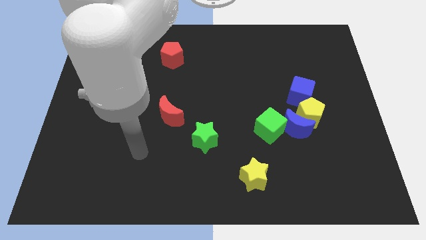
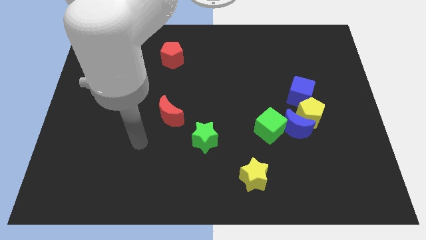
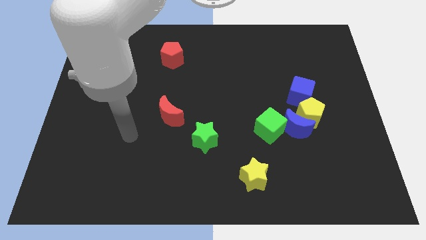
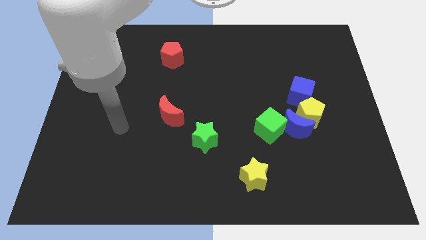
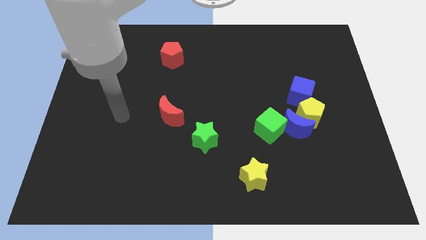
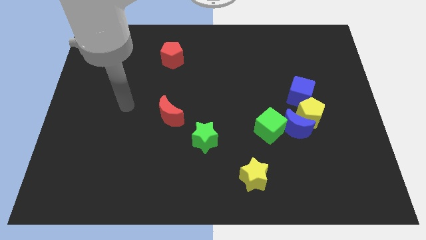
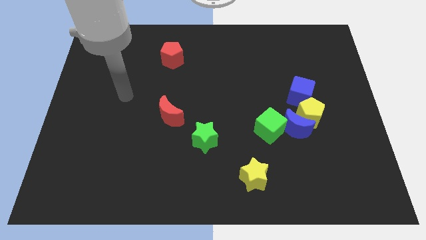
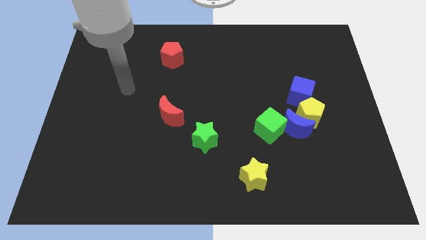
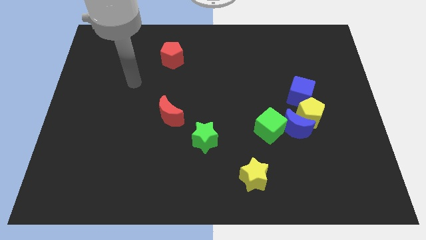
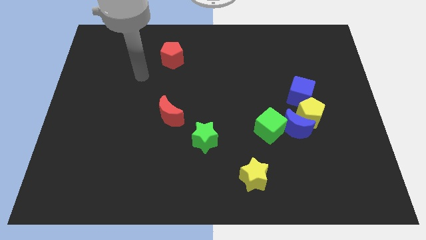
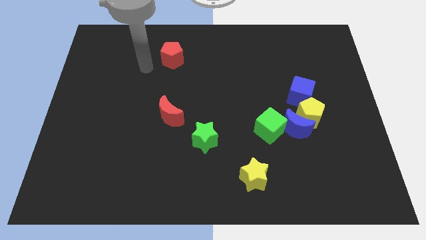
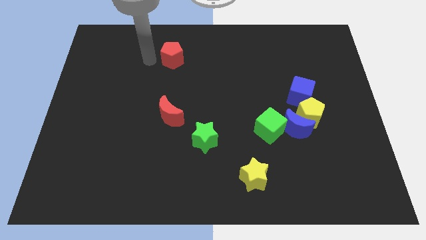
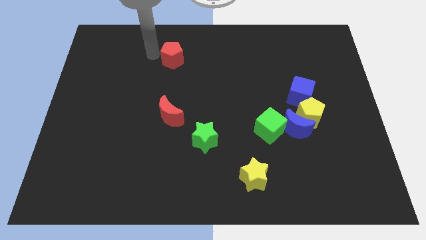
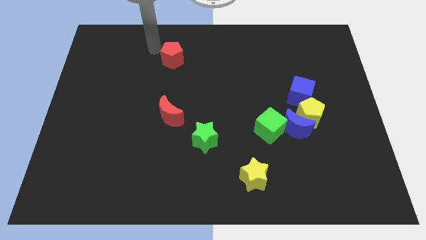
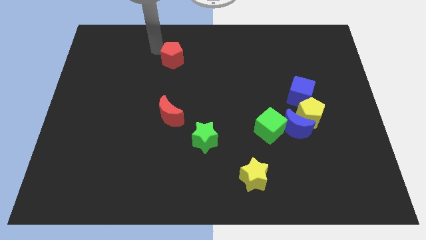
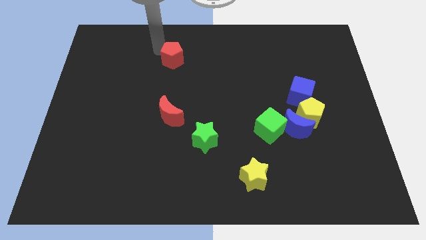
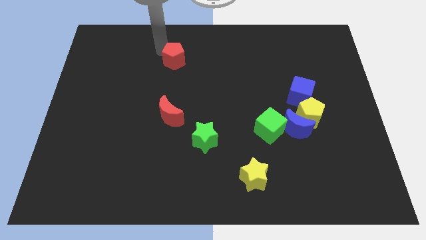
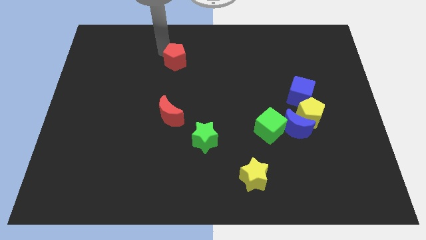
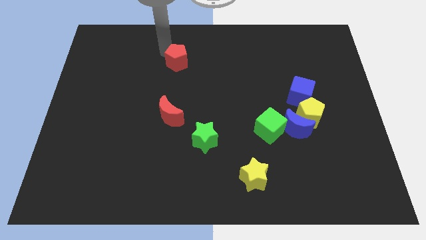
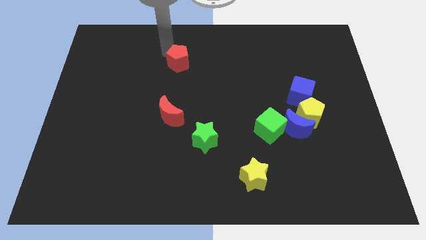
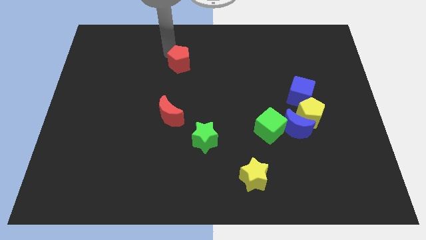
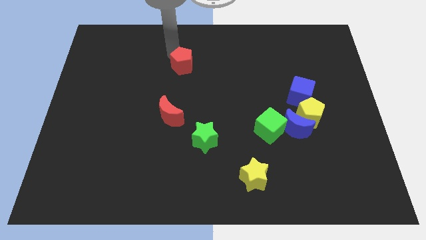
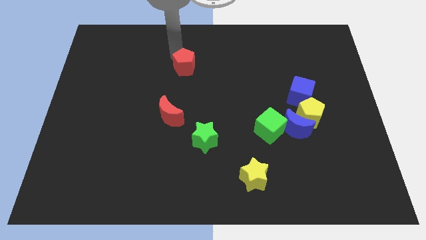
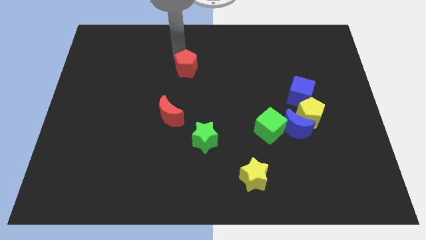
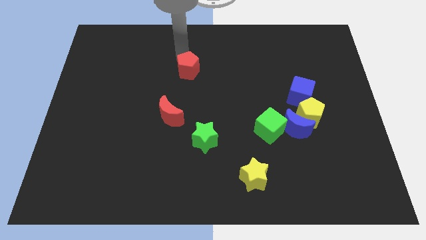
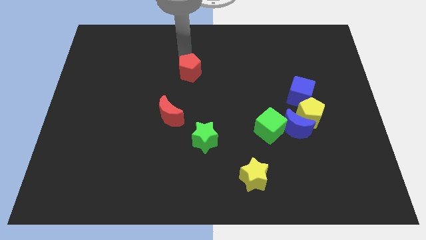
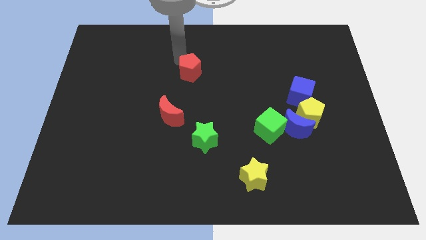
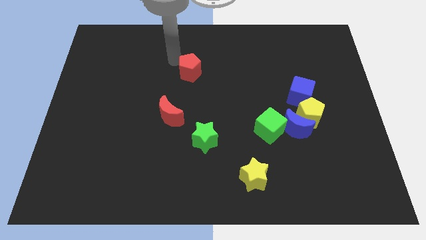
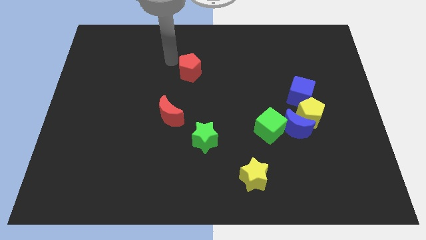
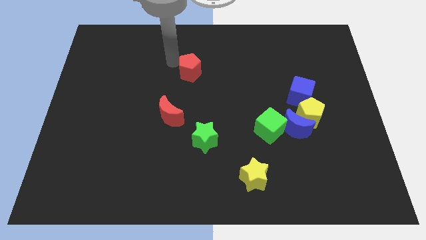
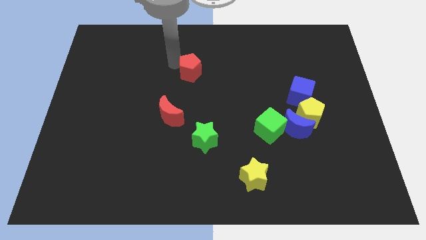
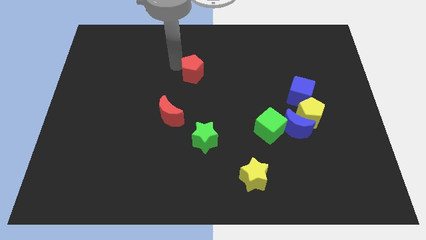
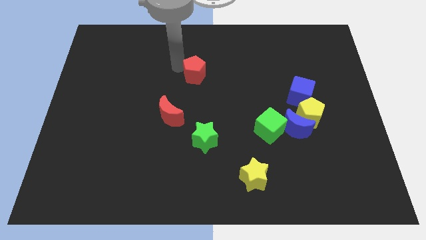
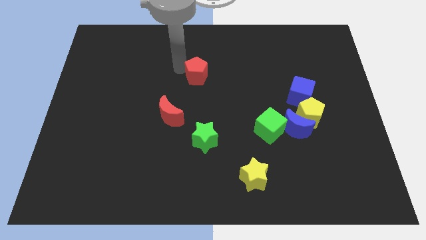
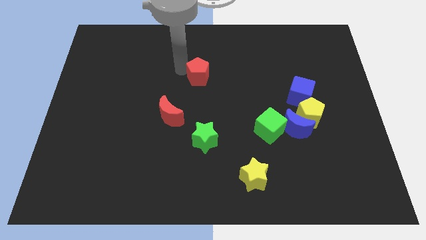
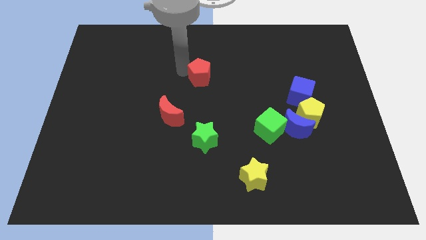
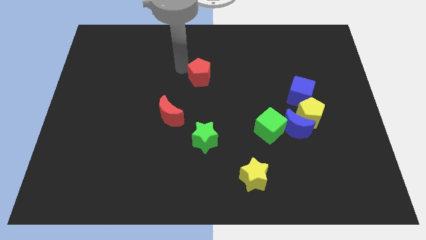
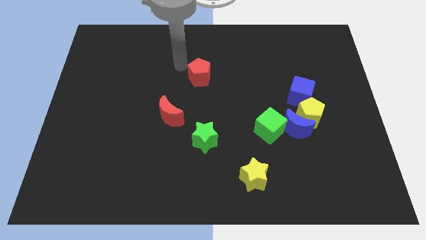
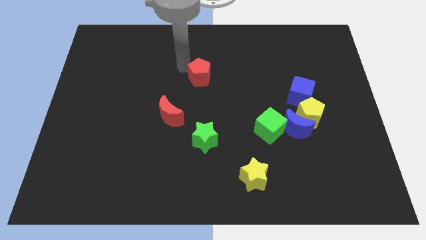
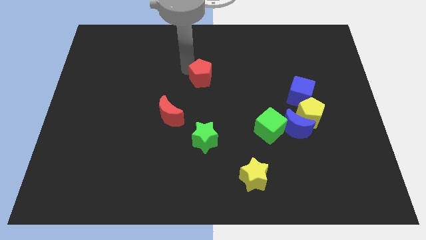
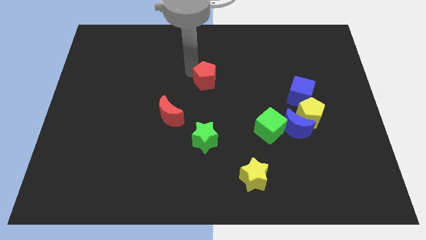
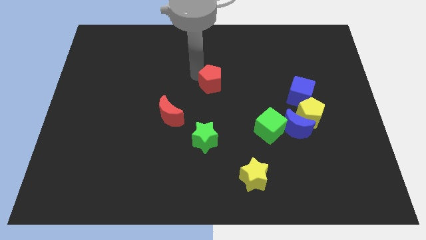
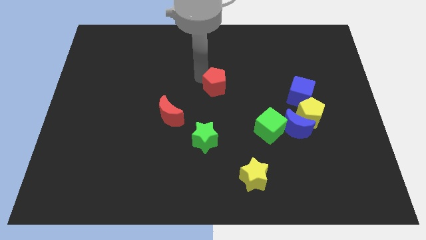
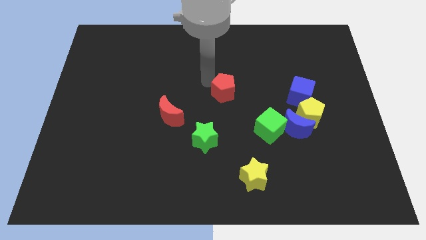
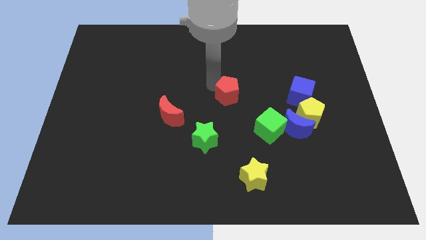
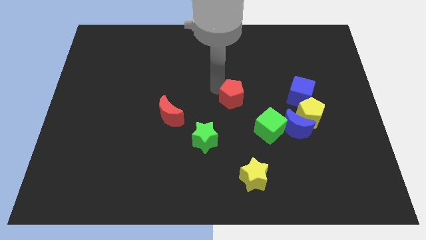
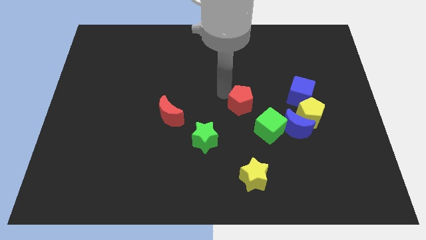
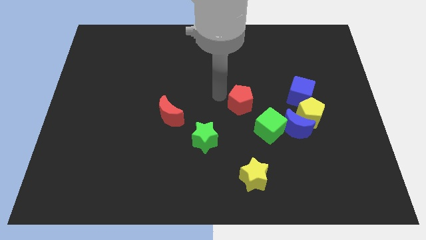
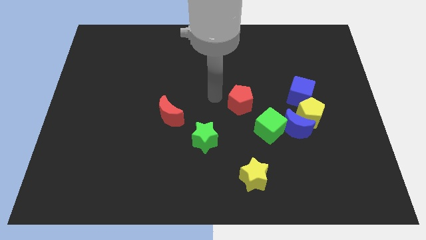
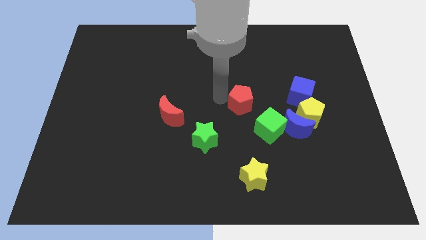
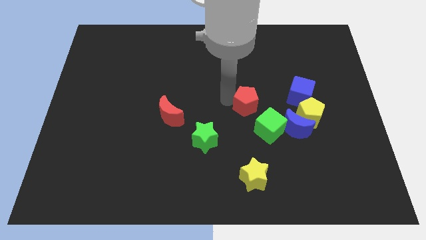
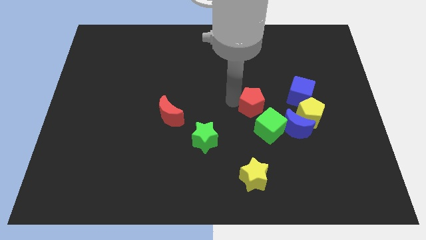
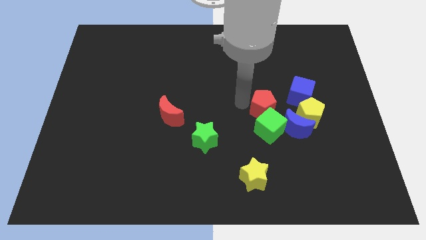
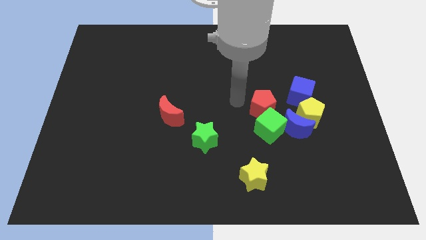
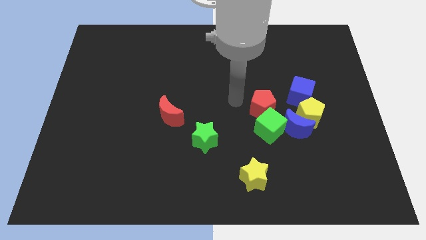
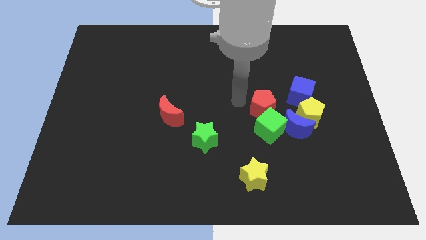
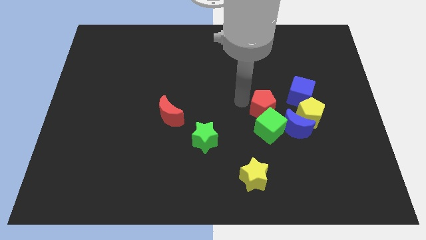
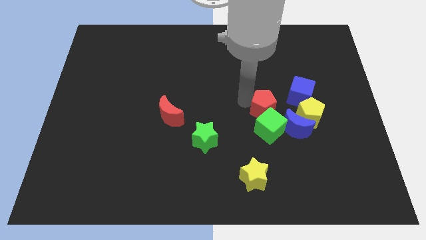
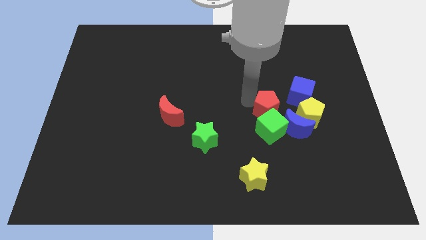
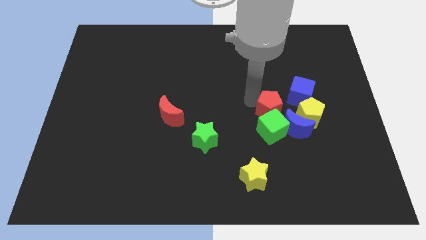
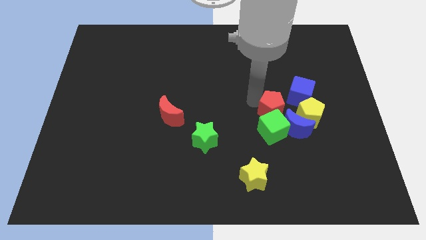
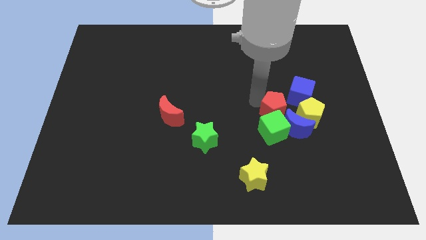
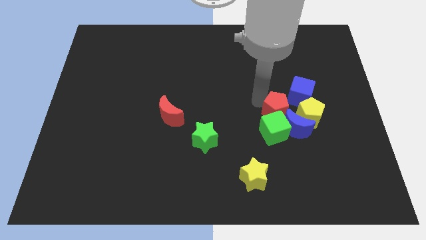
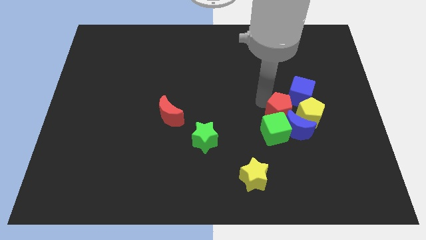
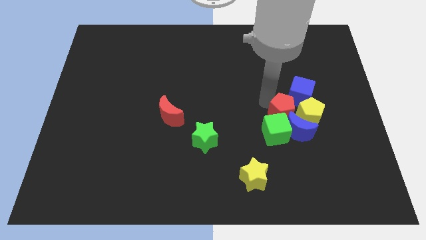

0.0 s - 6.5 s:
push the red pentagon towards the yellow pentagon
